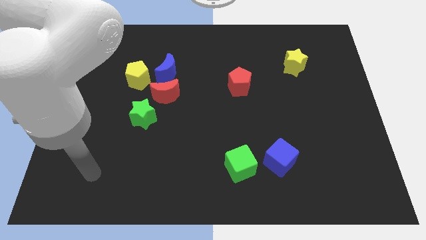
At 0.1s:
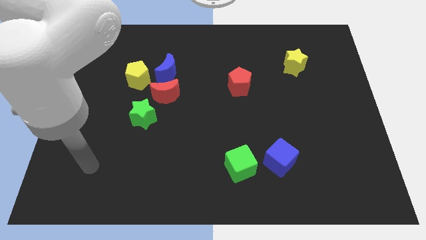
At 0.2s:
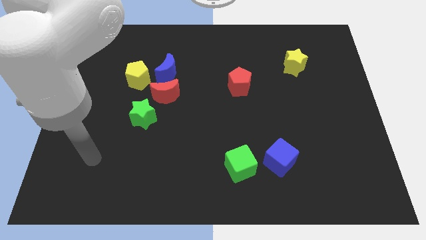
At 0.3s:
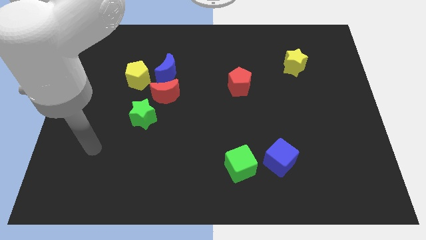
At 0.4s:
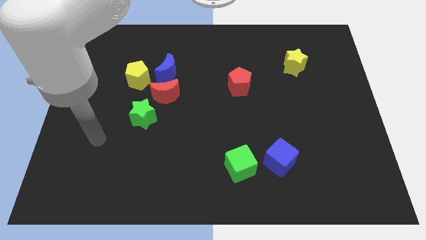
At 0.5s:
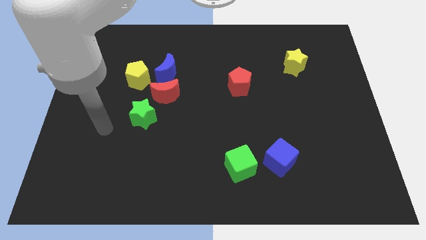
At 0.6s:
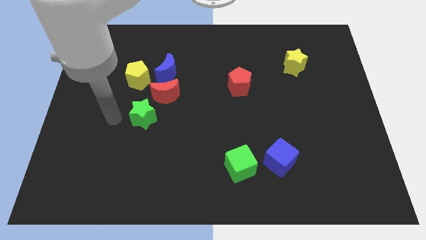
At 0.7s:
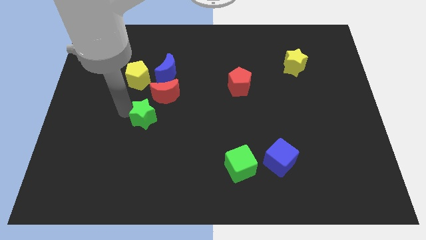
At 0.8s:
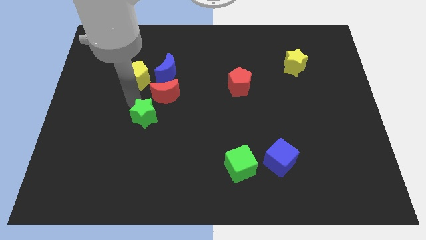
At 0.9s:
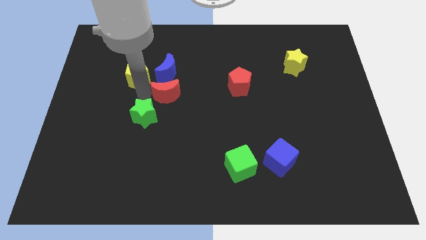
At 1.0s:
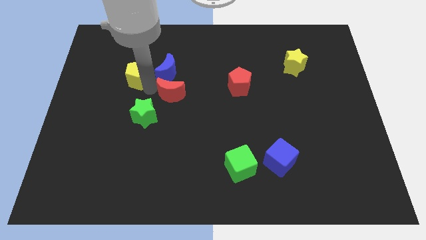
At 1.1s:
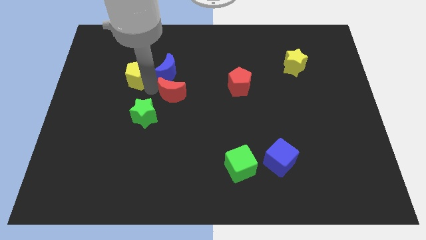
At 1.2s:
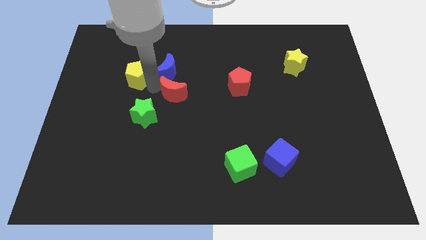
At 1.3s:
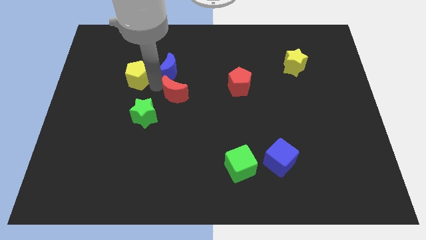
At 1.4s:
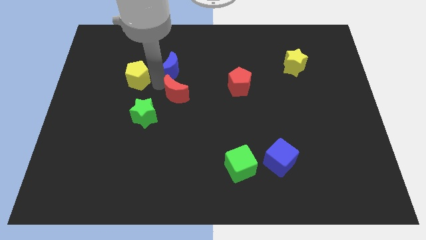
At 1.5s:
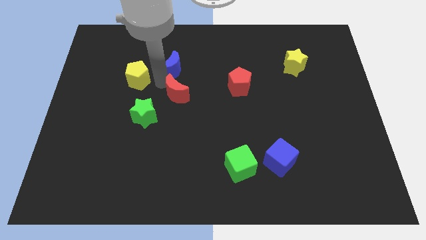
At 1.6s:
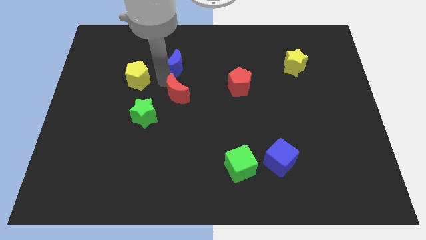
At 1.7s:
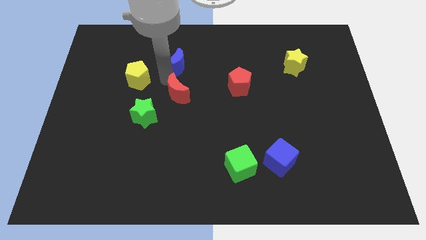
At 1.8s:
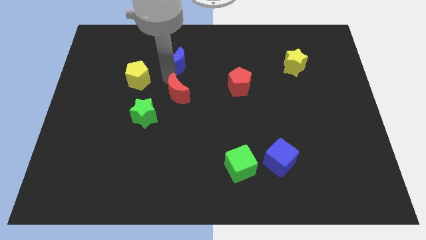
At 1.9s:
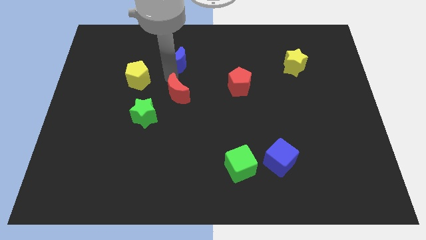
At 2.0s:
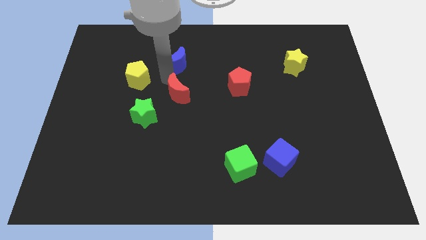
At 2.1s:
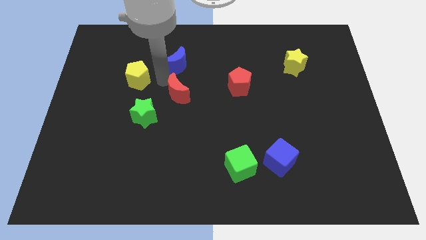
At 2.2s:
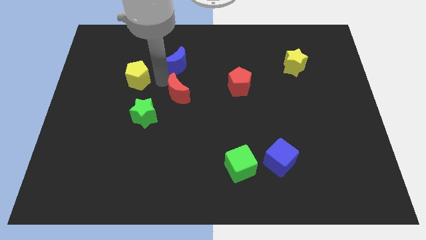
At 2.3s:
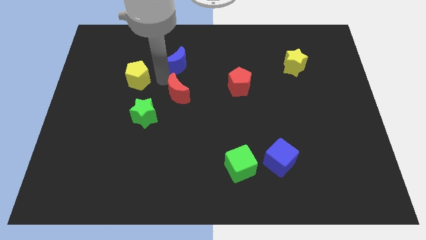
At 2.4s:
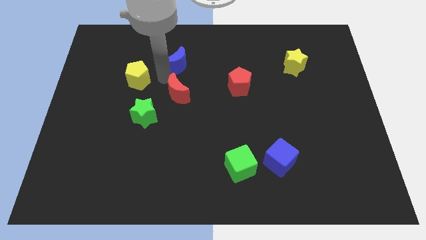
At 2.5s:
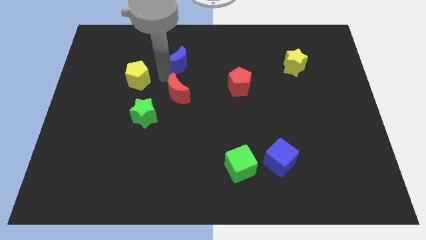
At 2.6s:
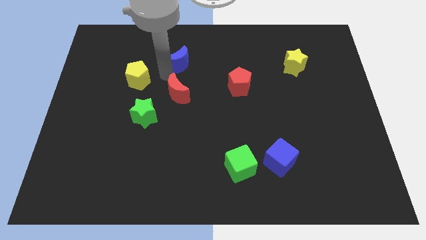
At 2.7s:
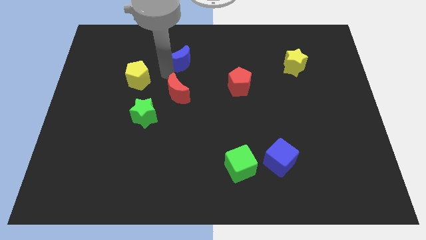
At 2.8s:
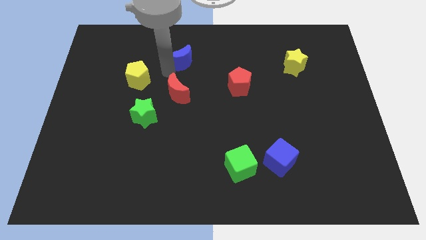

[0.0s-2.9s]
pull the blue moon apart from the red moon and yellow pentagon

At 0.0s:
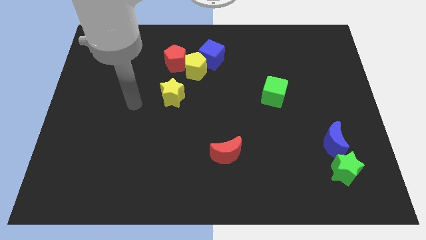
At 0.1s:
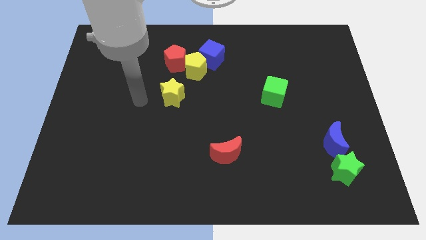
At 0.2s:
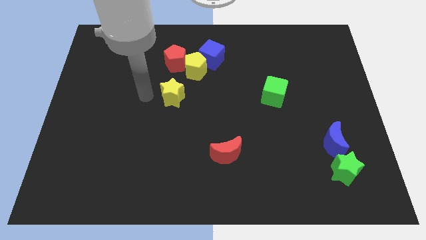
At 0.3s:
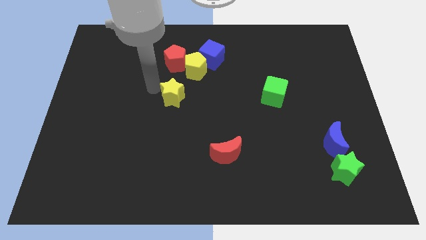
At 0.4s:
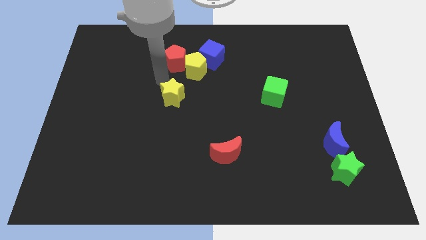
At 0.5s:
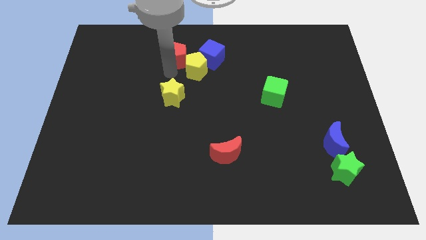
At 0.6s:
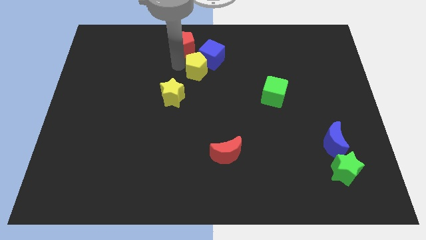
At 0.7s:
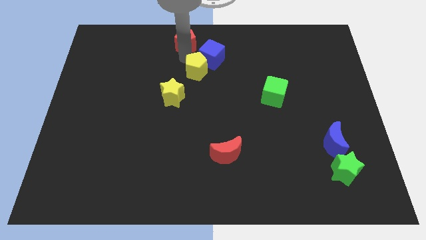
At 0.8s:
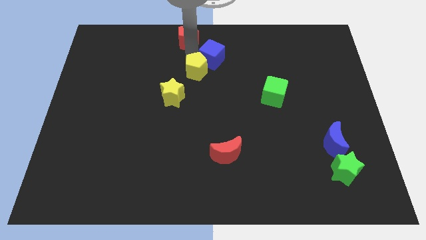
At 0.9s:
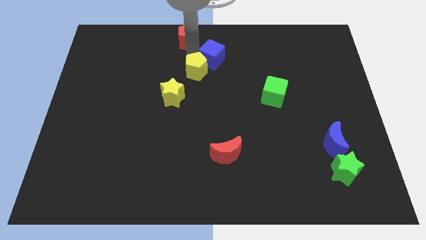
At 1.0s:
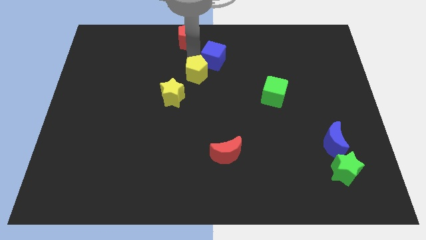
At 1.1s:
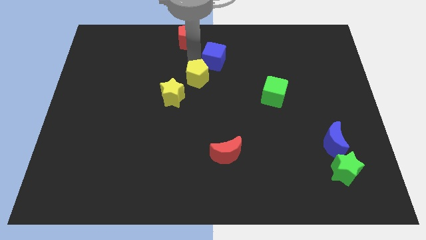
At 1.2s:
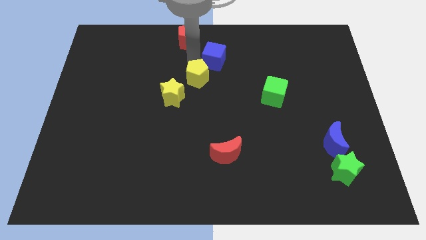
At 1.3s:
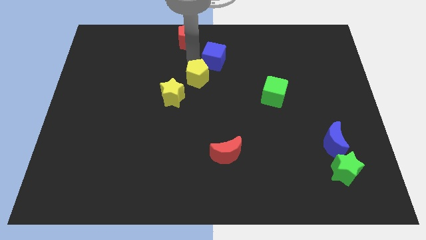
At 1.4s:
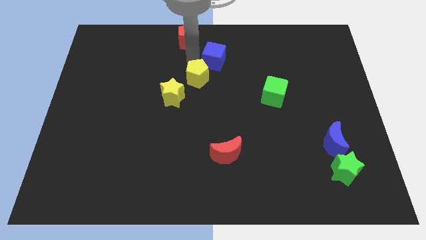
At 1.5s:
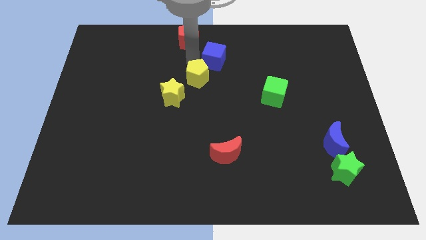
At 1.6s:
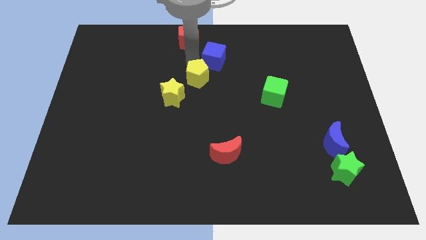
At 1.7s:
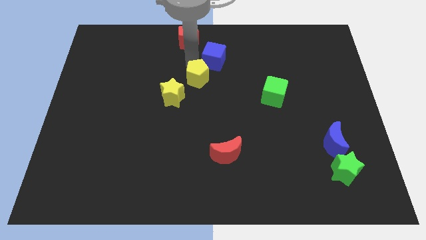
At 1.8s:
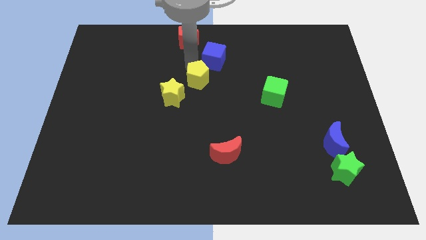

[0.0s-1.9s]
pull the yellow pentagon apart from the red pentagon and blue cube

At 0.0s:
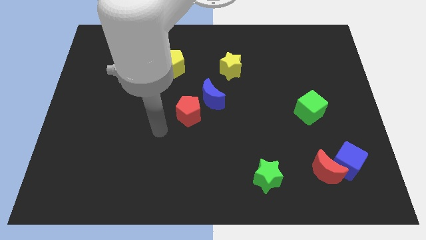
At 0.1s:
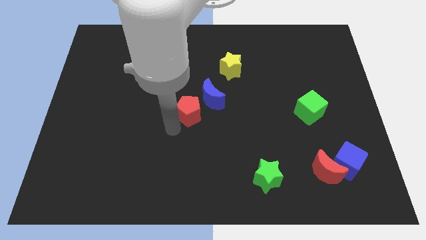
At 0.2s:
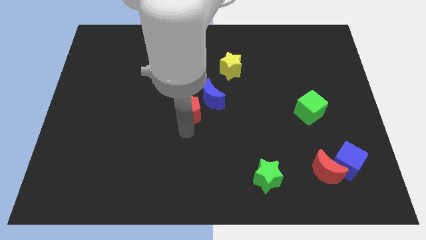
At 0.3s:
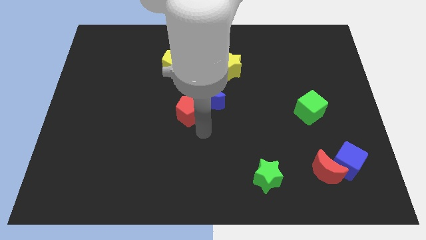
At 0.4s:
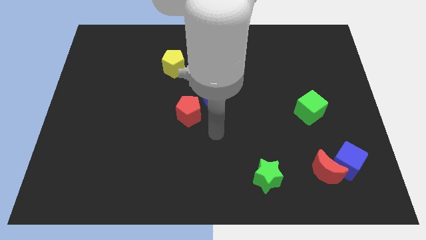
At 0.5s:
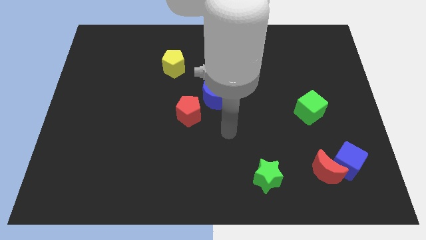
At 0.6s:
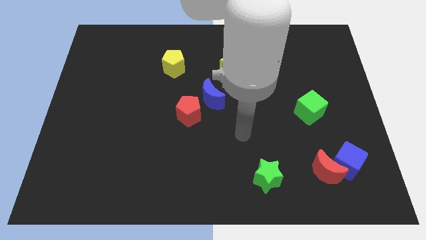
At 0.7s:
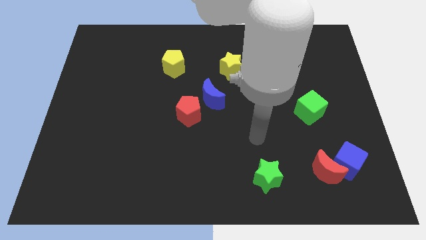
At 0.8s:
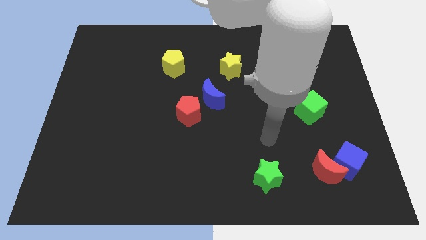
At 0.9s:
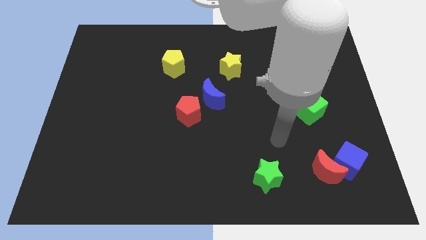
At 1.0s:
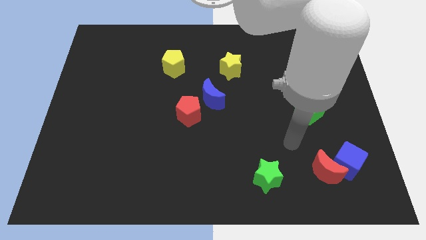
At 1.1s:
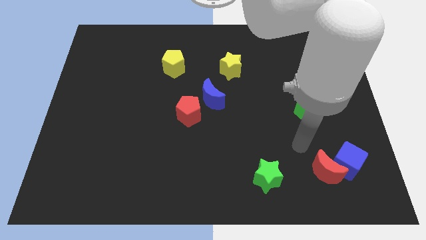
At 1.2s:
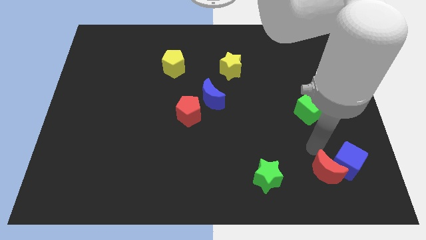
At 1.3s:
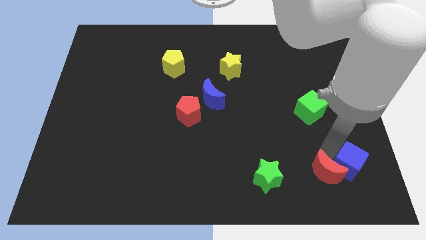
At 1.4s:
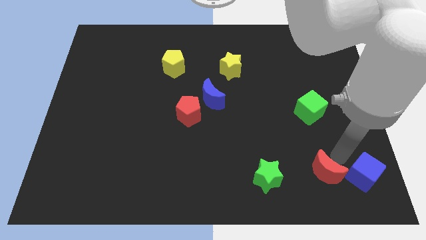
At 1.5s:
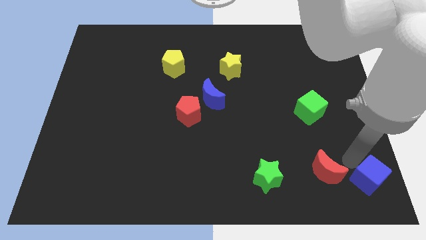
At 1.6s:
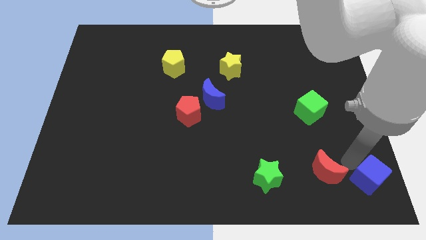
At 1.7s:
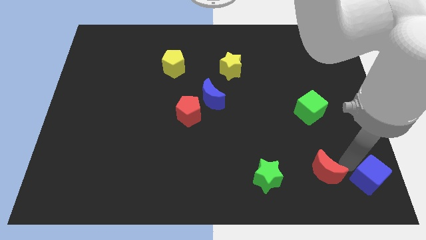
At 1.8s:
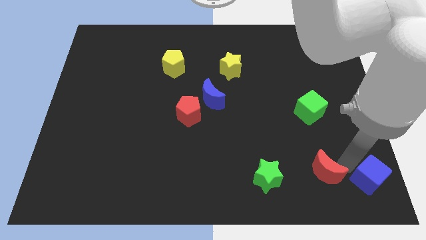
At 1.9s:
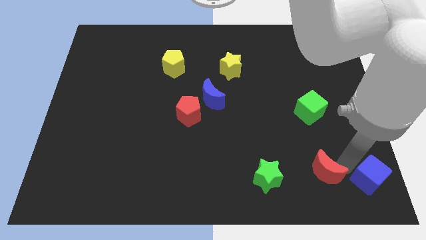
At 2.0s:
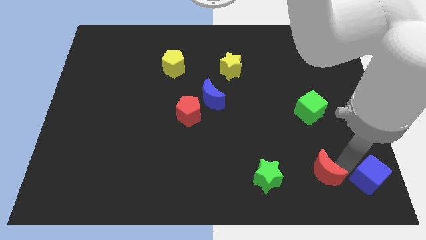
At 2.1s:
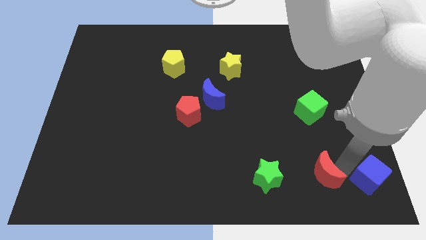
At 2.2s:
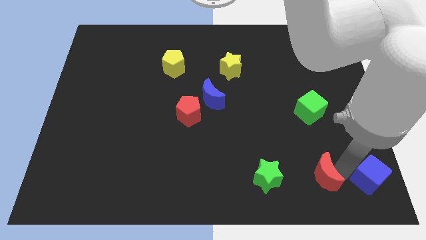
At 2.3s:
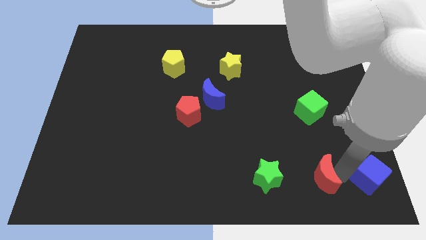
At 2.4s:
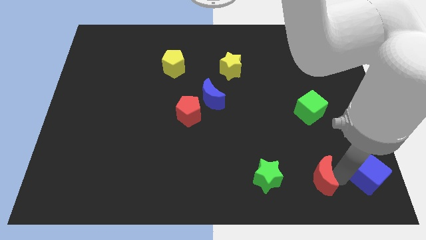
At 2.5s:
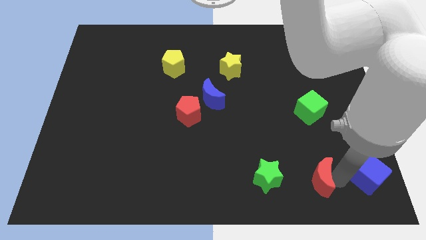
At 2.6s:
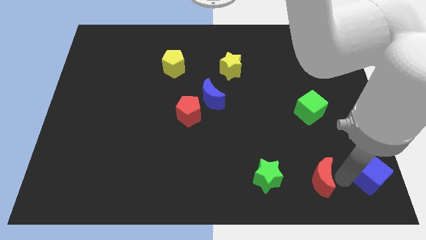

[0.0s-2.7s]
move the red moon away from the blue cube

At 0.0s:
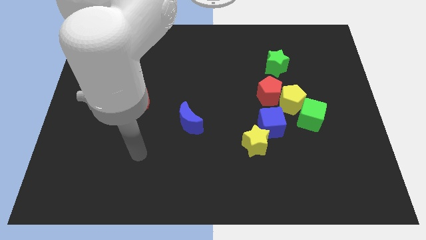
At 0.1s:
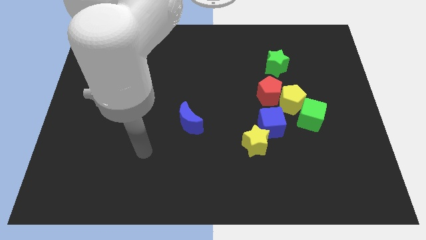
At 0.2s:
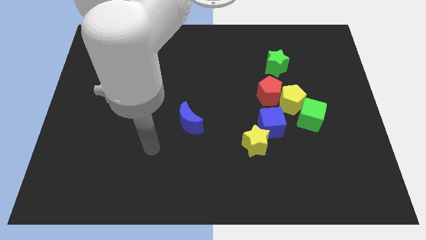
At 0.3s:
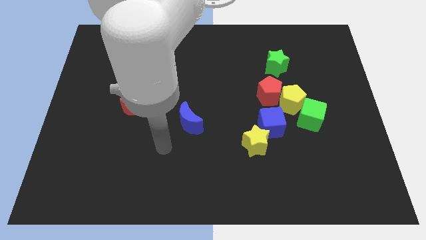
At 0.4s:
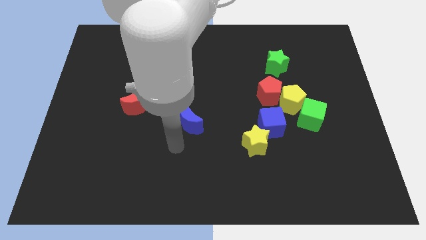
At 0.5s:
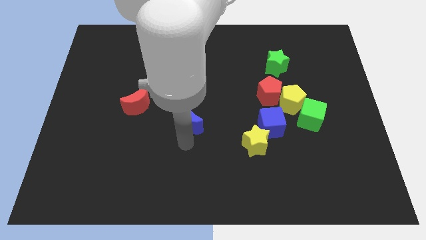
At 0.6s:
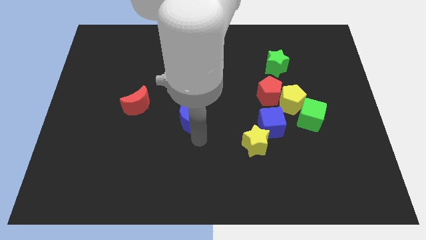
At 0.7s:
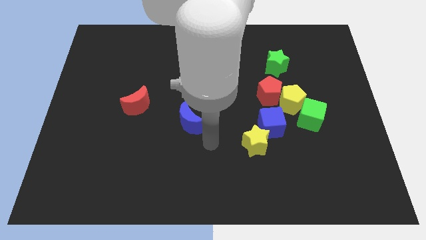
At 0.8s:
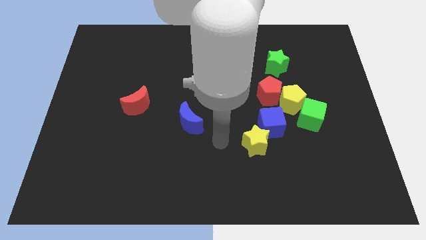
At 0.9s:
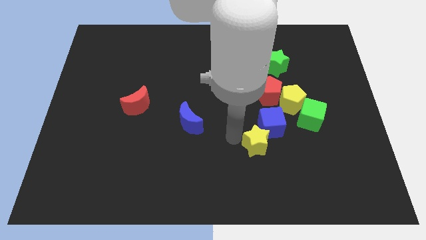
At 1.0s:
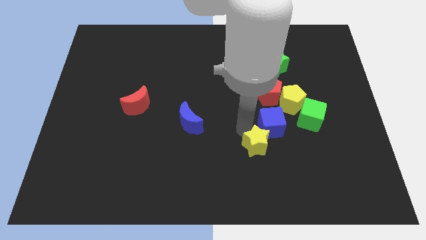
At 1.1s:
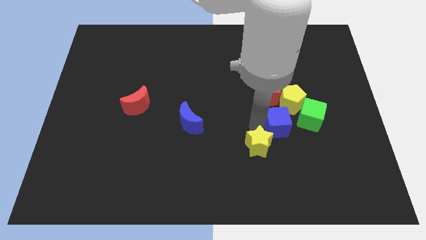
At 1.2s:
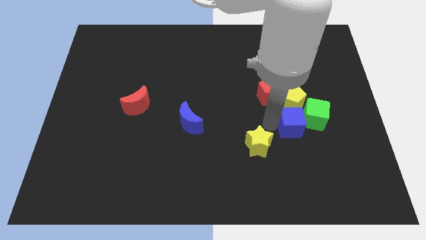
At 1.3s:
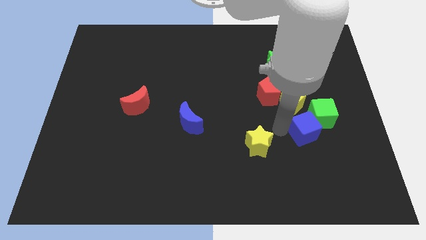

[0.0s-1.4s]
pull the yellow star apart from the blue cube

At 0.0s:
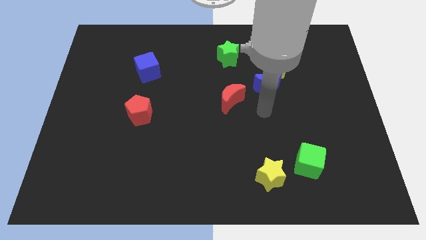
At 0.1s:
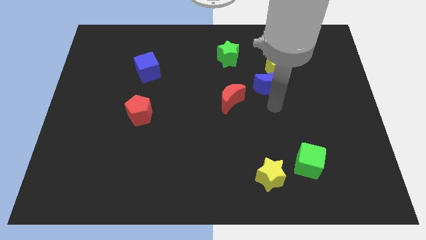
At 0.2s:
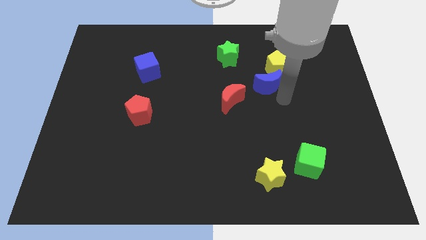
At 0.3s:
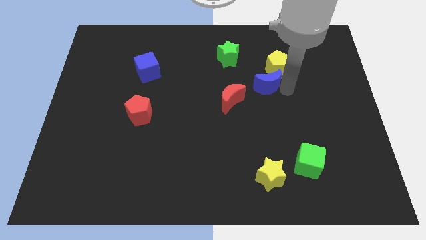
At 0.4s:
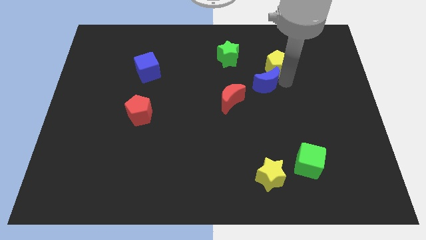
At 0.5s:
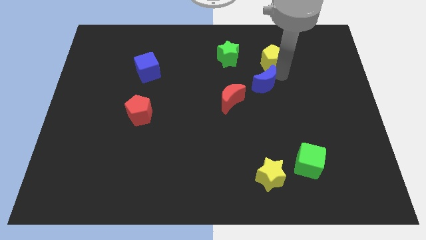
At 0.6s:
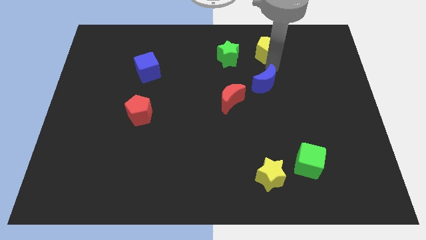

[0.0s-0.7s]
move the blue moon away from the yellow pentagon
